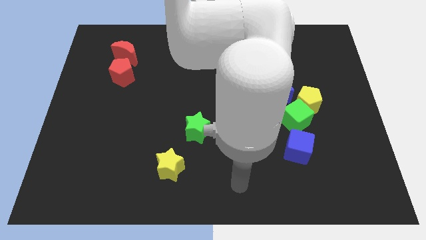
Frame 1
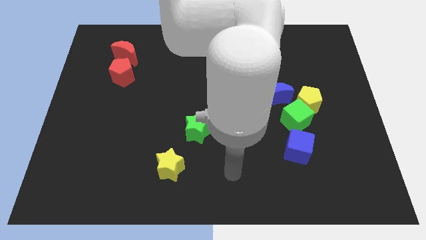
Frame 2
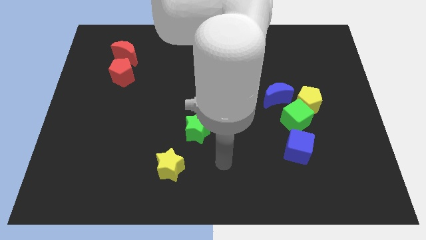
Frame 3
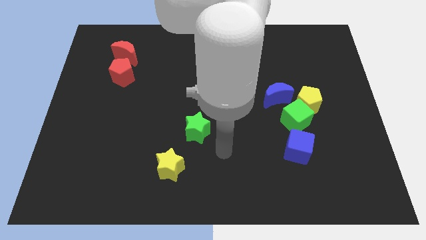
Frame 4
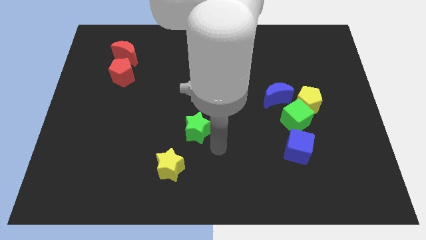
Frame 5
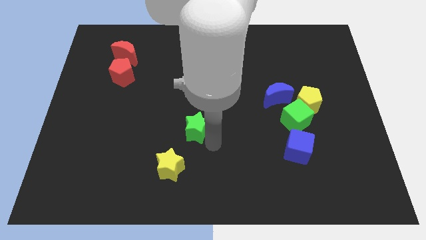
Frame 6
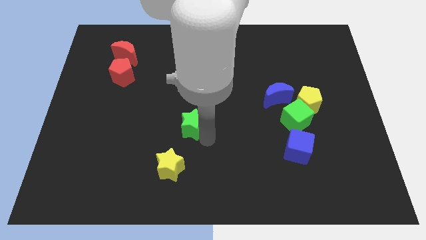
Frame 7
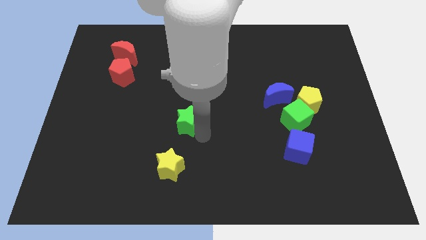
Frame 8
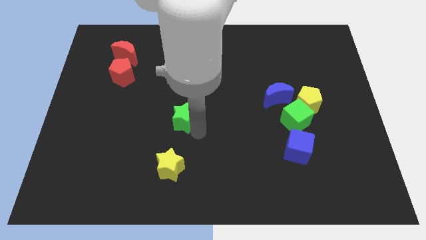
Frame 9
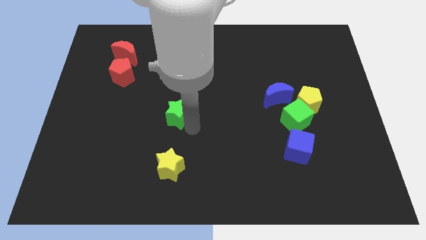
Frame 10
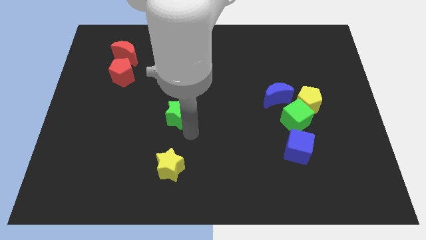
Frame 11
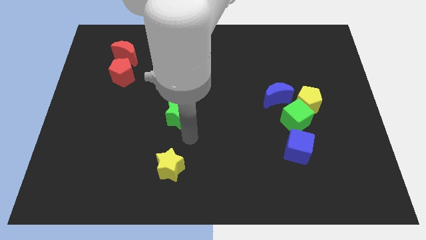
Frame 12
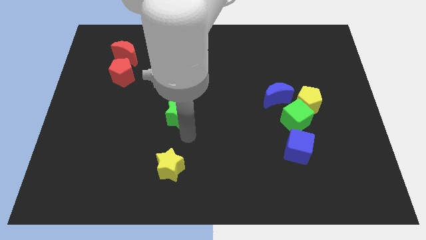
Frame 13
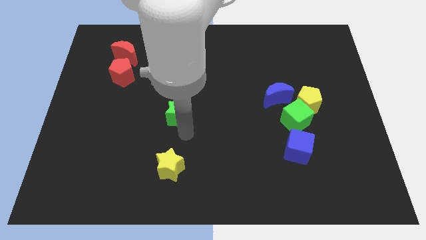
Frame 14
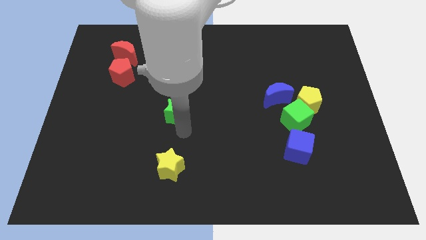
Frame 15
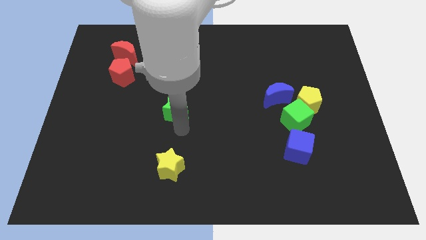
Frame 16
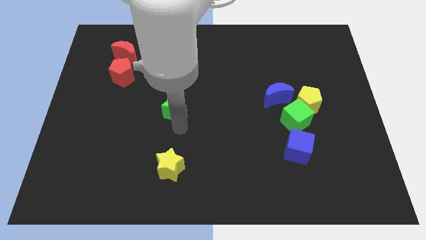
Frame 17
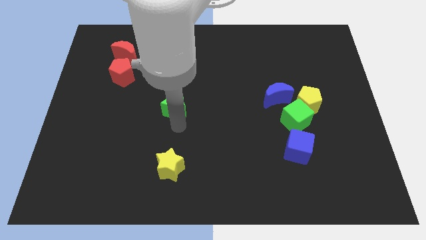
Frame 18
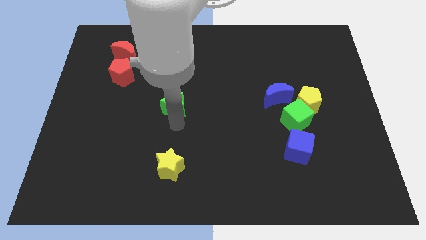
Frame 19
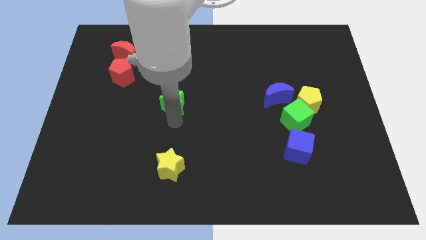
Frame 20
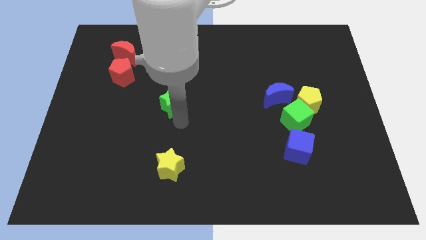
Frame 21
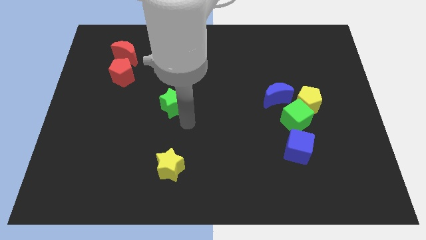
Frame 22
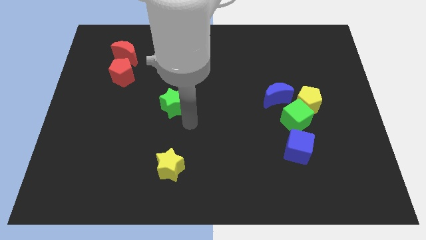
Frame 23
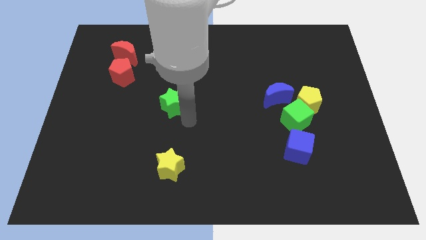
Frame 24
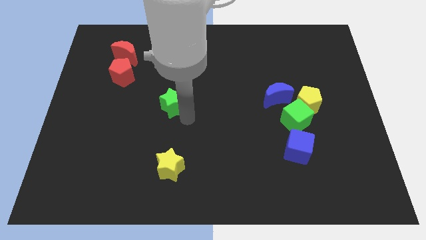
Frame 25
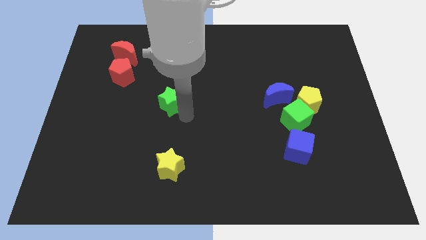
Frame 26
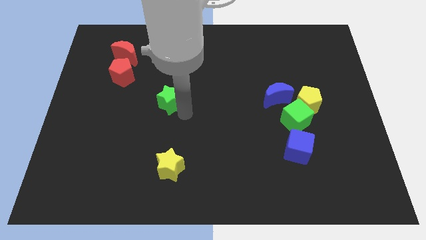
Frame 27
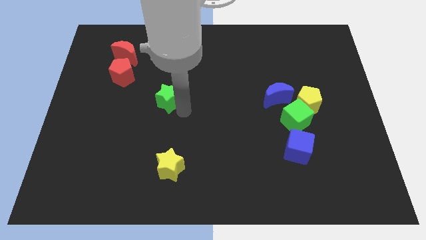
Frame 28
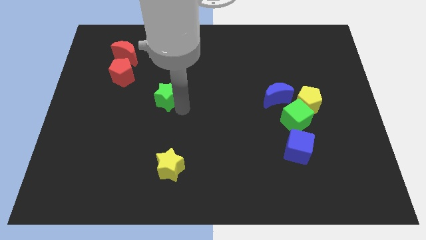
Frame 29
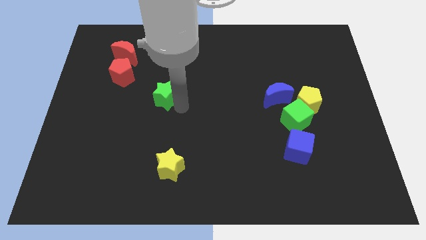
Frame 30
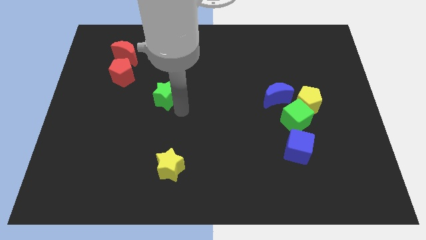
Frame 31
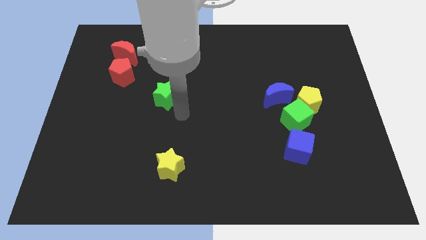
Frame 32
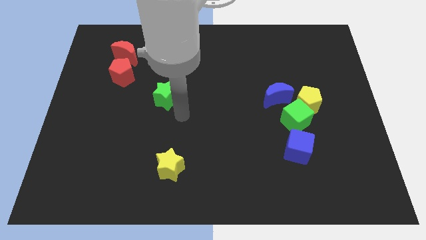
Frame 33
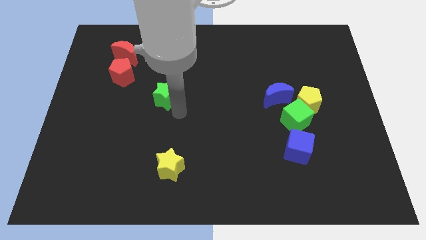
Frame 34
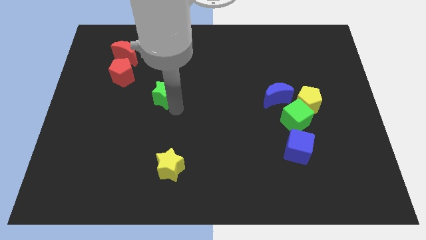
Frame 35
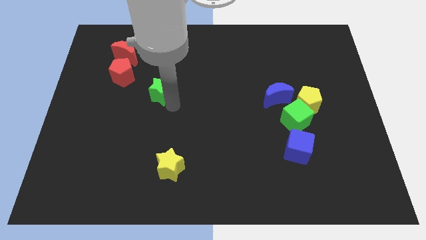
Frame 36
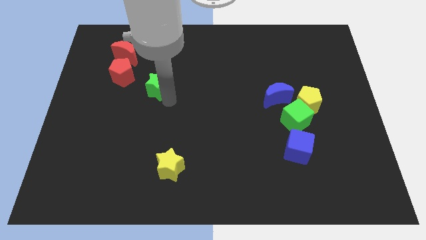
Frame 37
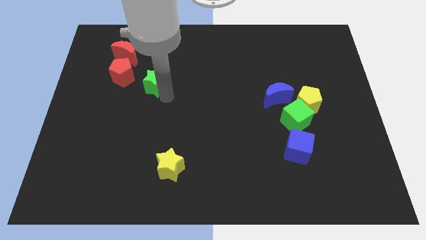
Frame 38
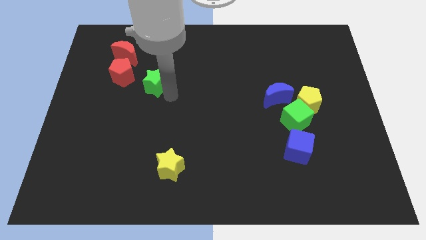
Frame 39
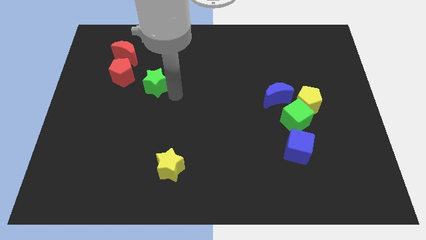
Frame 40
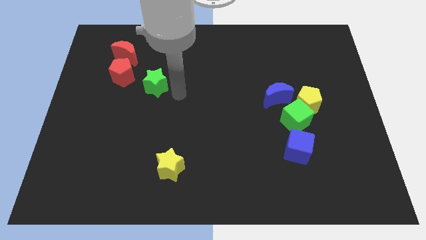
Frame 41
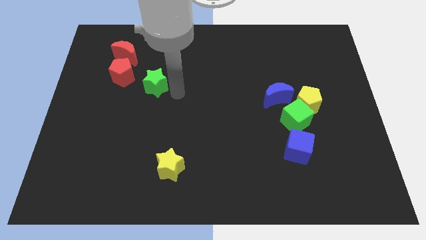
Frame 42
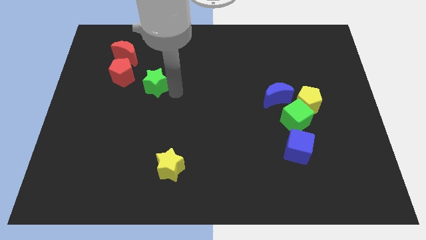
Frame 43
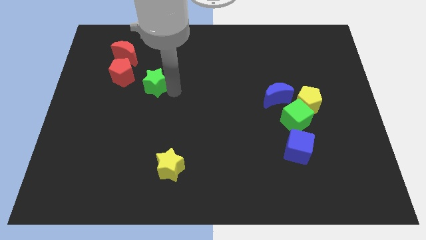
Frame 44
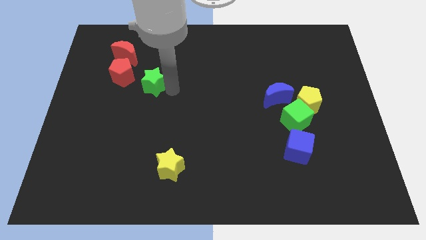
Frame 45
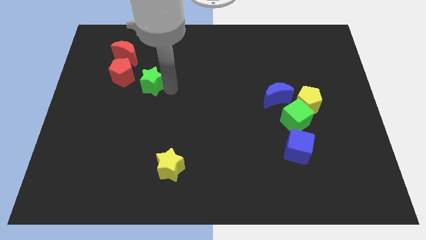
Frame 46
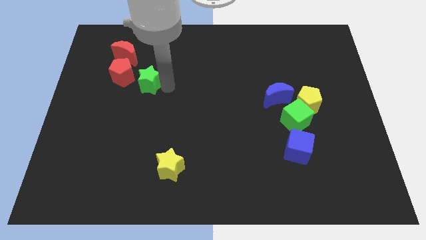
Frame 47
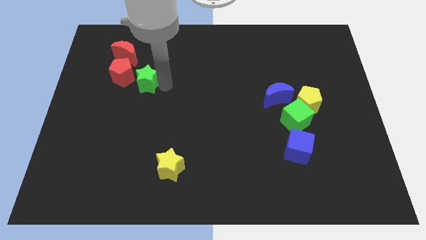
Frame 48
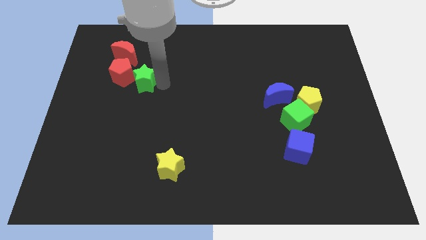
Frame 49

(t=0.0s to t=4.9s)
move the green star next to the red pentagon

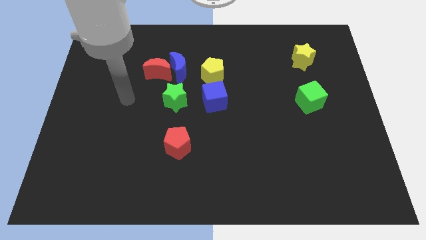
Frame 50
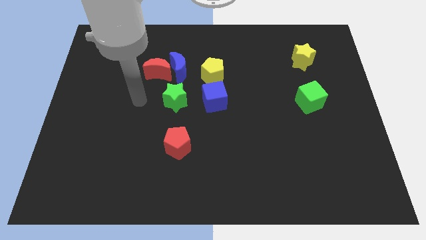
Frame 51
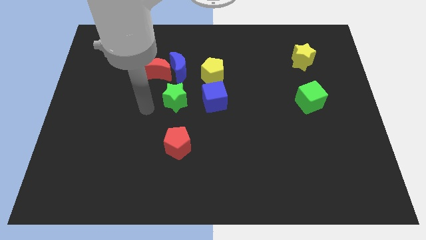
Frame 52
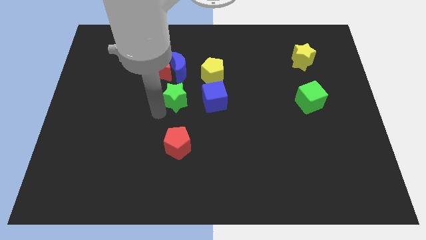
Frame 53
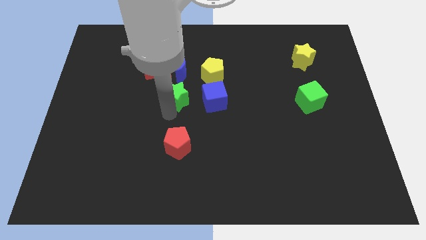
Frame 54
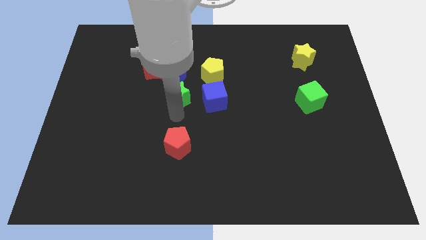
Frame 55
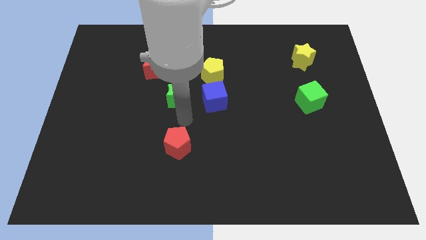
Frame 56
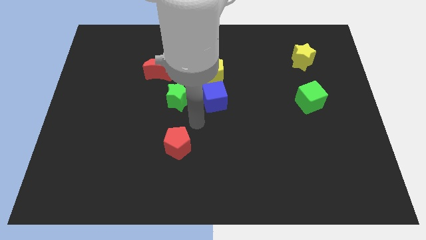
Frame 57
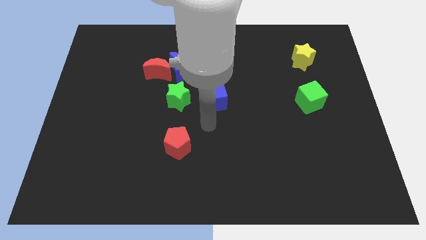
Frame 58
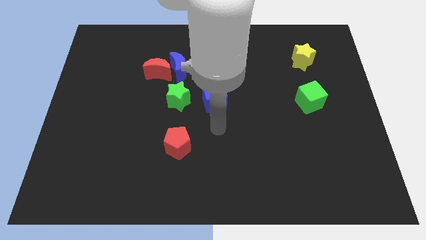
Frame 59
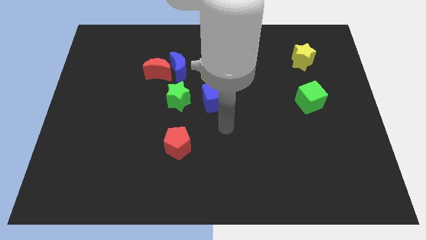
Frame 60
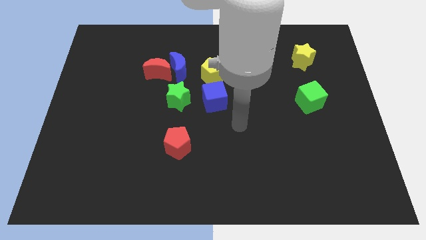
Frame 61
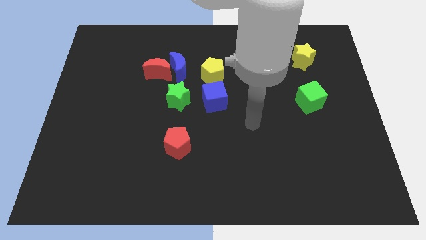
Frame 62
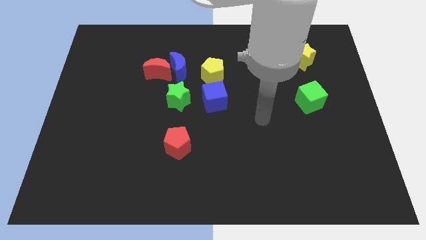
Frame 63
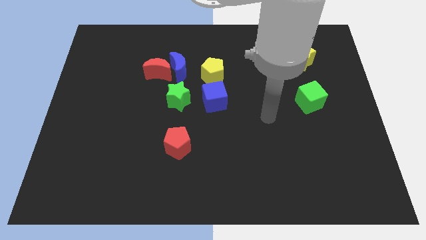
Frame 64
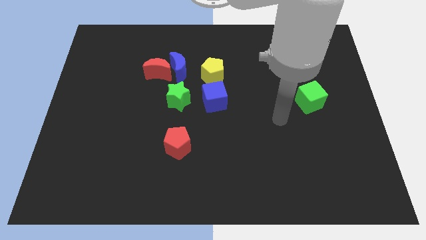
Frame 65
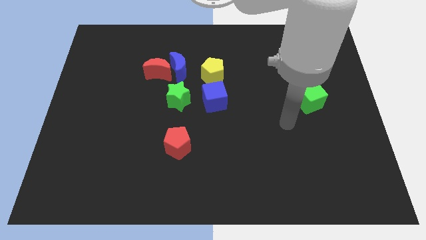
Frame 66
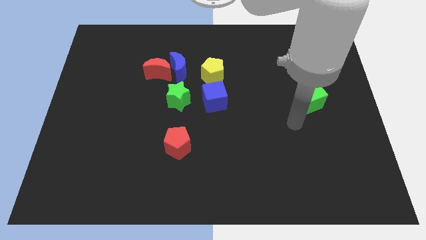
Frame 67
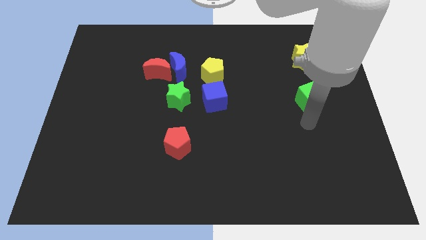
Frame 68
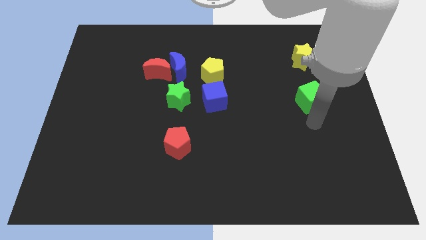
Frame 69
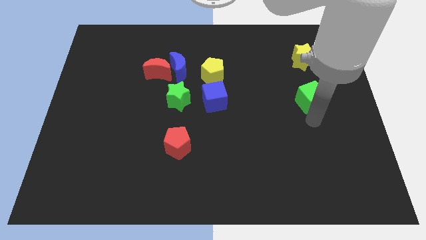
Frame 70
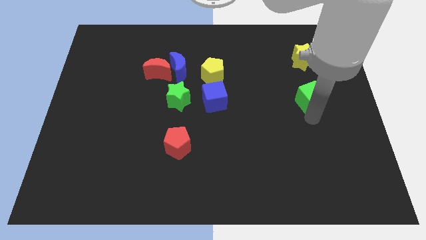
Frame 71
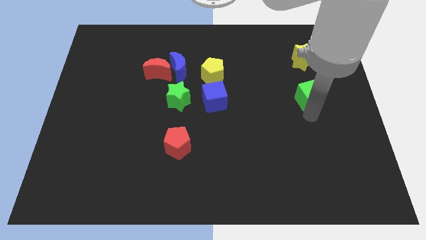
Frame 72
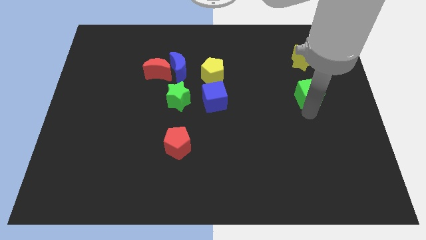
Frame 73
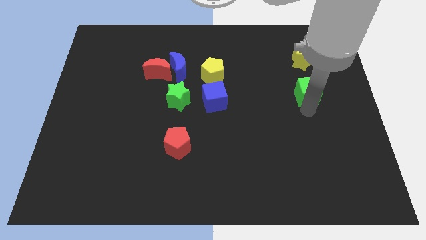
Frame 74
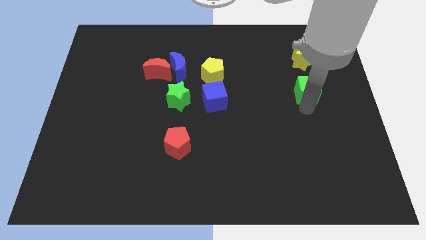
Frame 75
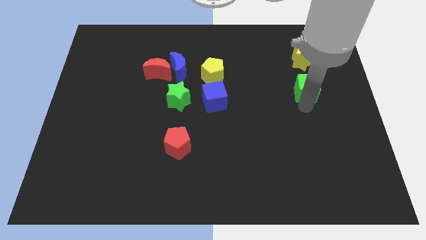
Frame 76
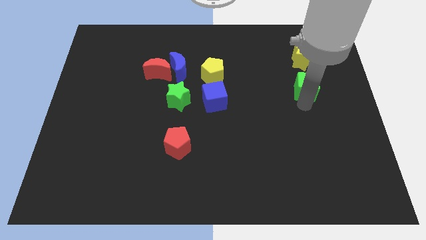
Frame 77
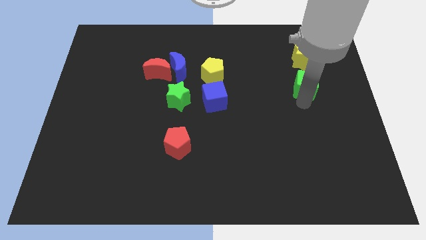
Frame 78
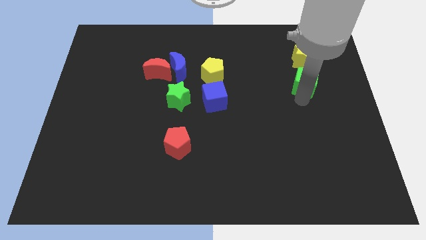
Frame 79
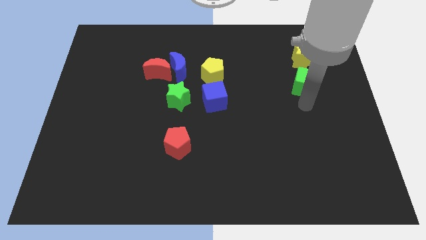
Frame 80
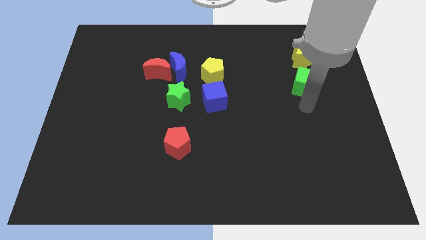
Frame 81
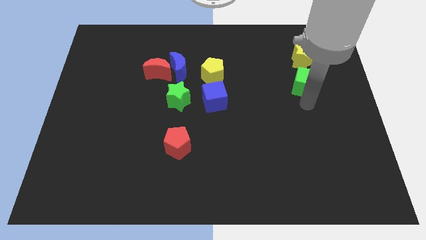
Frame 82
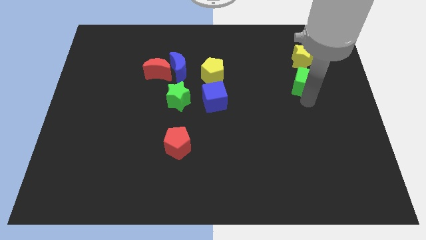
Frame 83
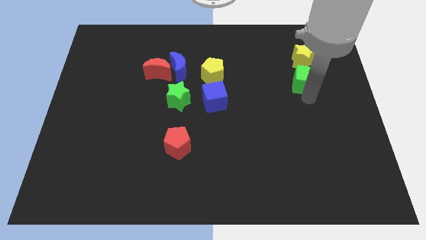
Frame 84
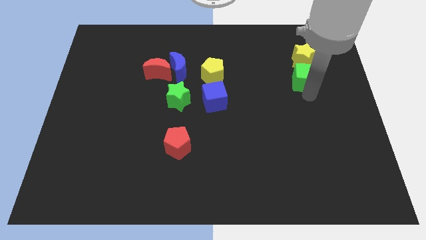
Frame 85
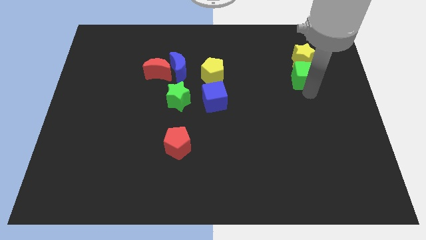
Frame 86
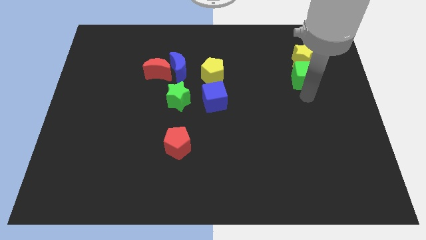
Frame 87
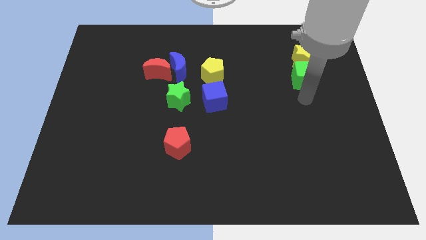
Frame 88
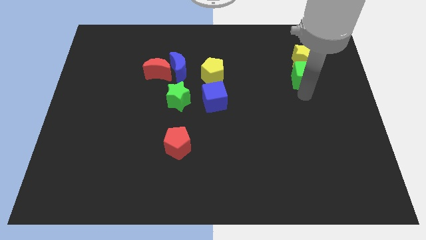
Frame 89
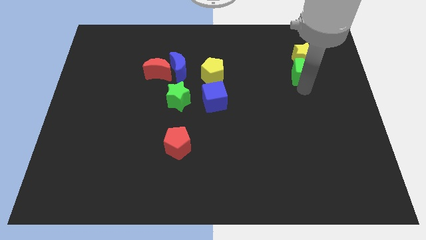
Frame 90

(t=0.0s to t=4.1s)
push the green cube towards the yellow star
